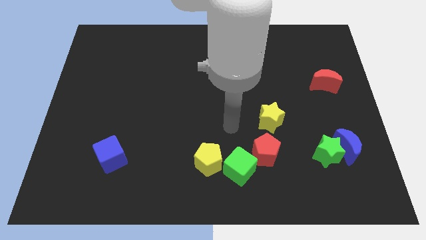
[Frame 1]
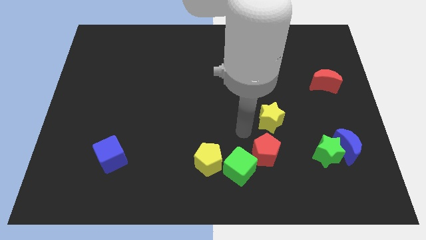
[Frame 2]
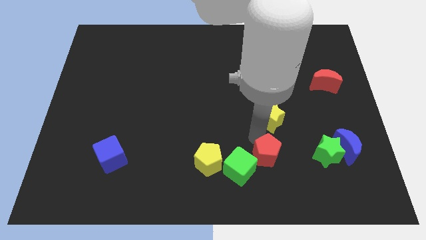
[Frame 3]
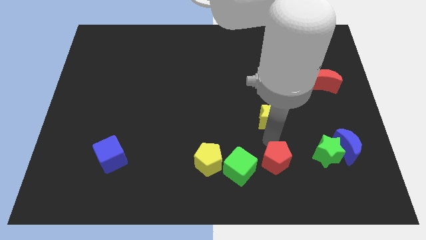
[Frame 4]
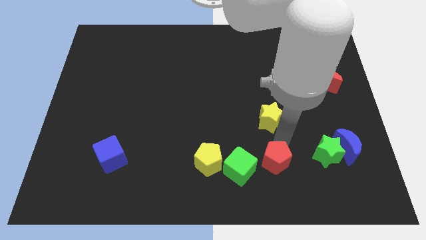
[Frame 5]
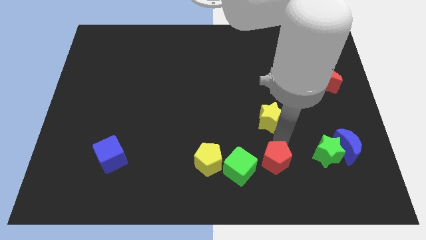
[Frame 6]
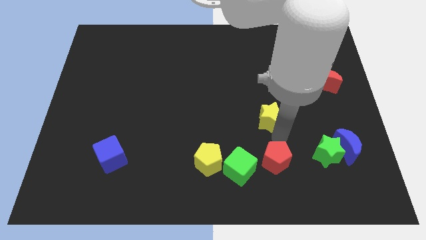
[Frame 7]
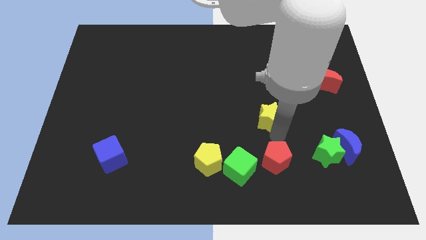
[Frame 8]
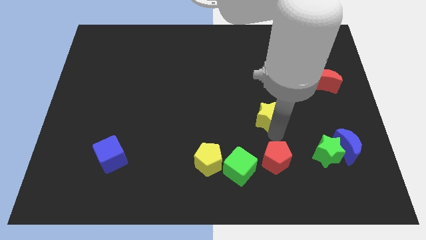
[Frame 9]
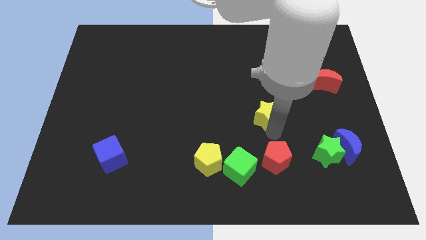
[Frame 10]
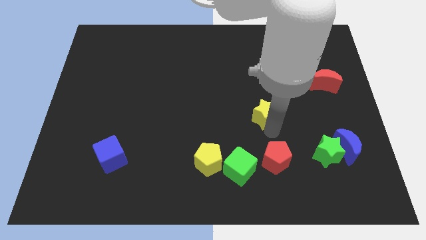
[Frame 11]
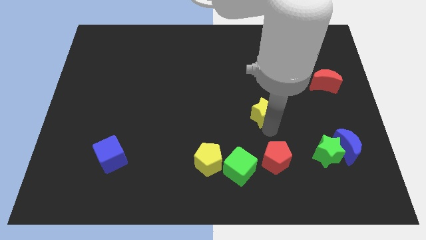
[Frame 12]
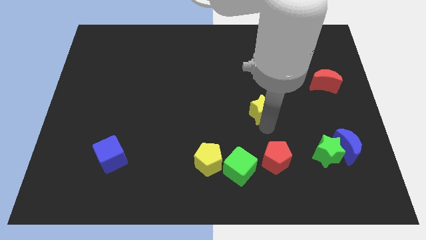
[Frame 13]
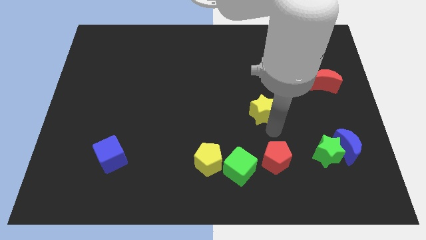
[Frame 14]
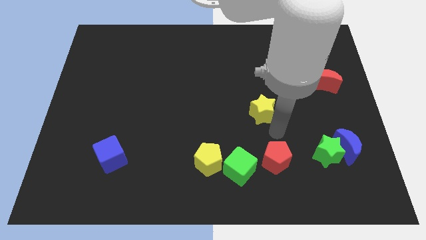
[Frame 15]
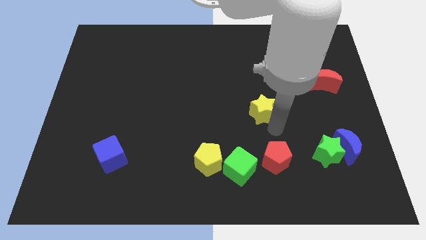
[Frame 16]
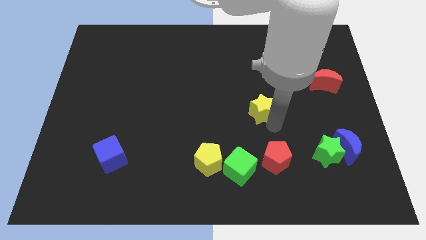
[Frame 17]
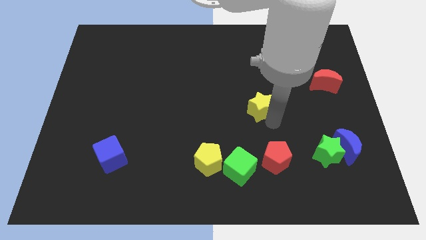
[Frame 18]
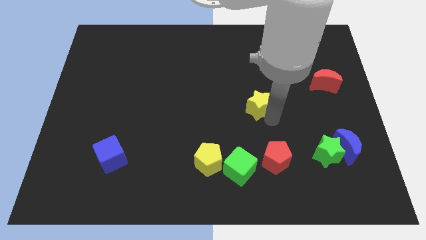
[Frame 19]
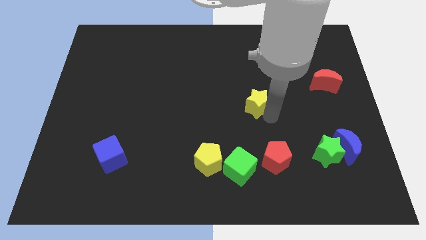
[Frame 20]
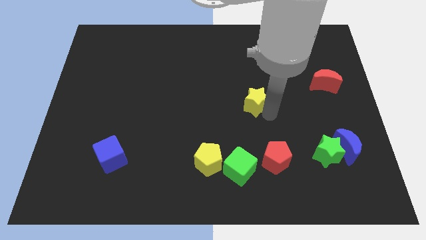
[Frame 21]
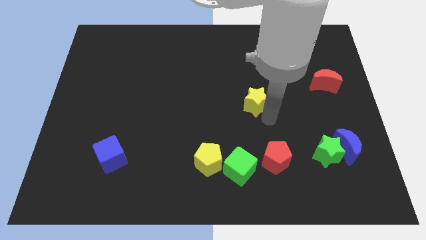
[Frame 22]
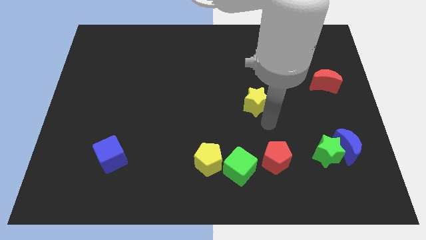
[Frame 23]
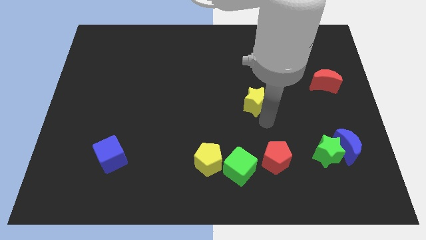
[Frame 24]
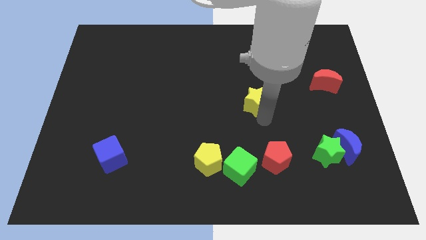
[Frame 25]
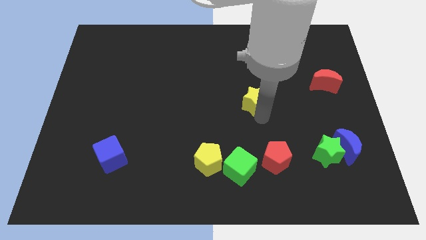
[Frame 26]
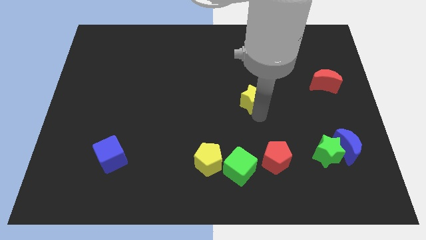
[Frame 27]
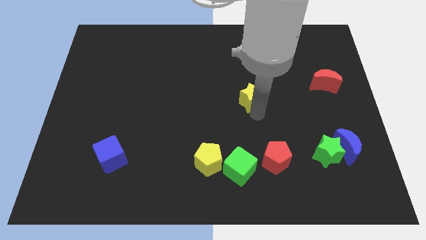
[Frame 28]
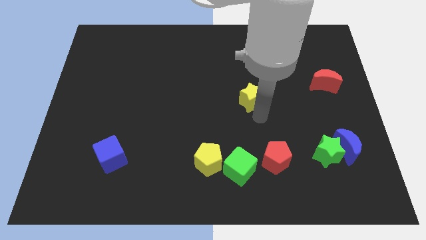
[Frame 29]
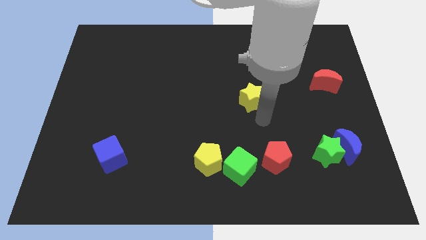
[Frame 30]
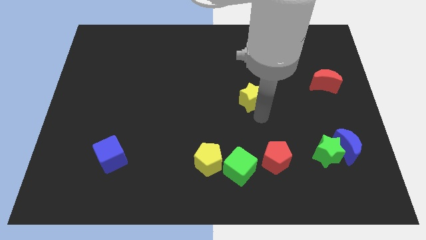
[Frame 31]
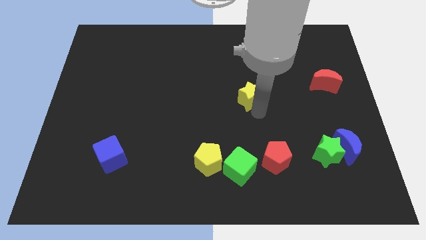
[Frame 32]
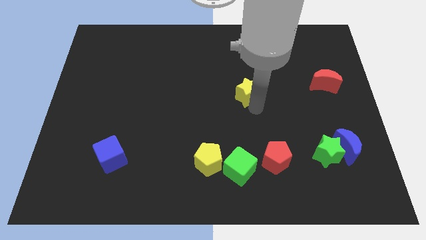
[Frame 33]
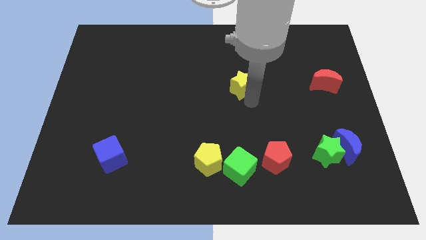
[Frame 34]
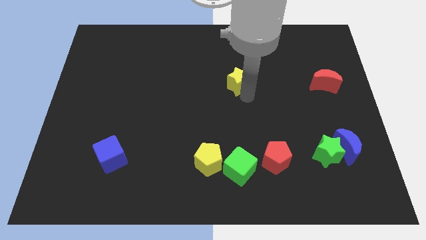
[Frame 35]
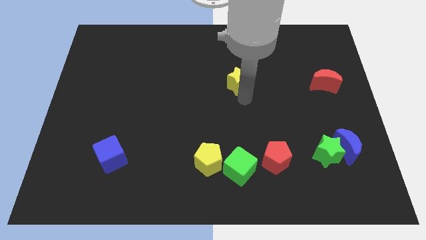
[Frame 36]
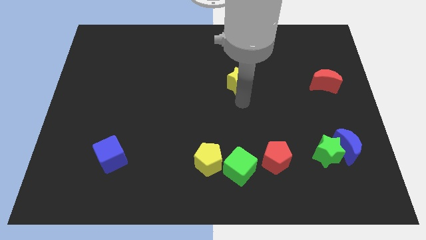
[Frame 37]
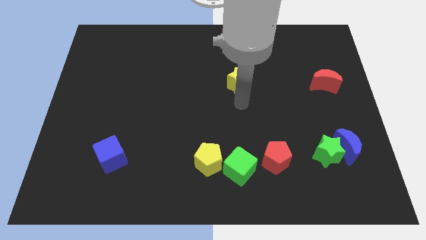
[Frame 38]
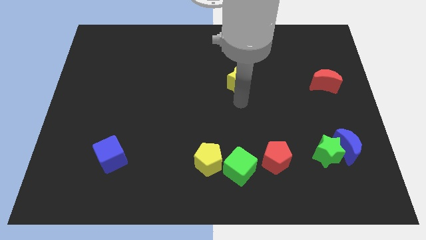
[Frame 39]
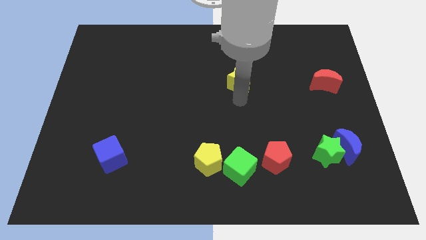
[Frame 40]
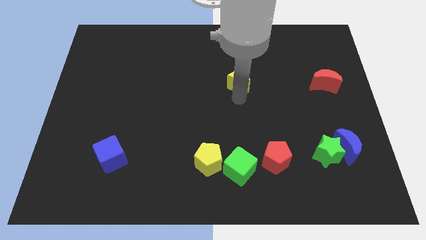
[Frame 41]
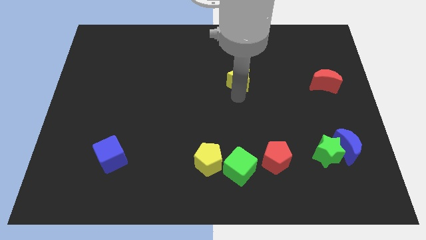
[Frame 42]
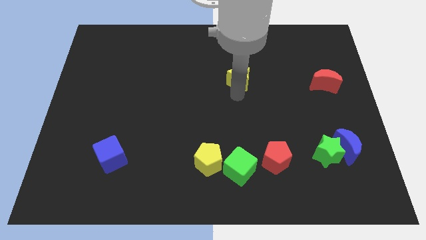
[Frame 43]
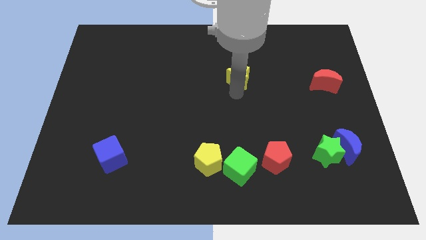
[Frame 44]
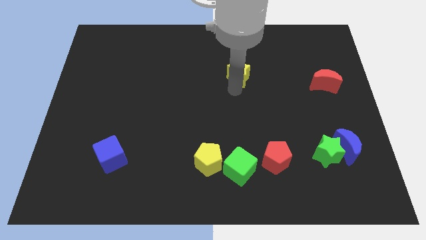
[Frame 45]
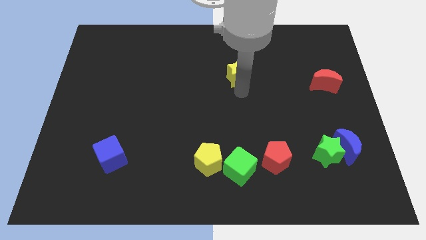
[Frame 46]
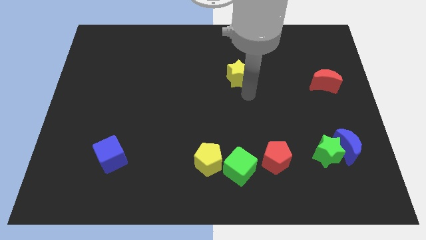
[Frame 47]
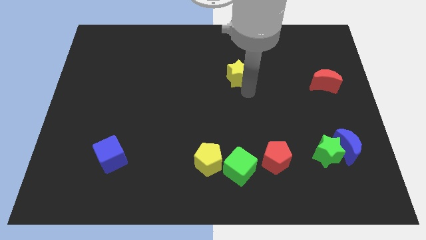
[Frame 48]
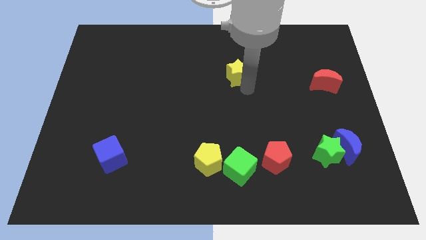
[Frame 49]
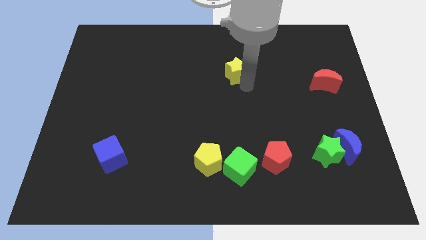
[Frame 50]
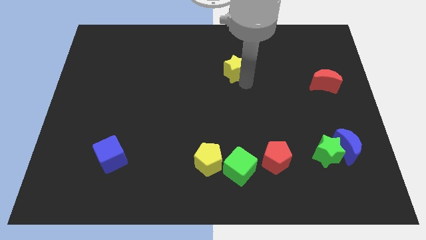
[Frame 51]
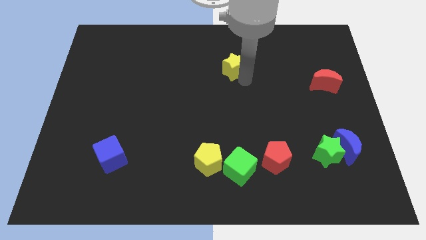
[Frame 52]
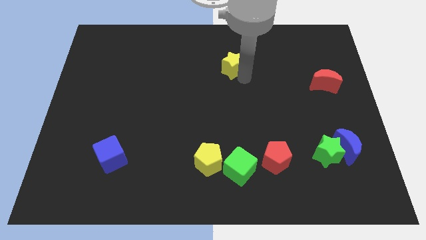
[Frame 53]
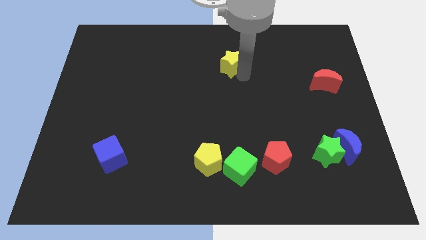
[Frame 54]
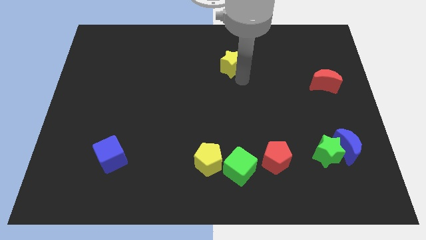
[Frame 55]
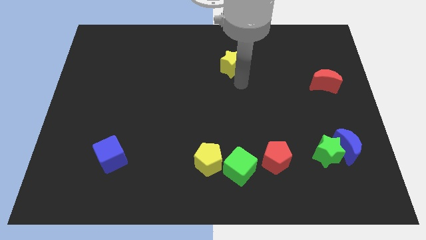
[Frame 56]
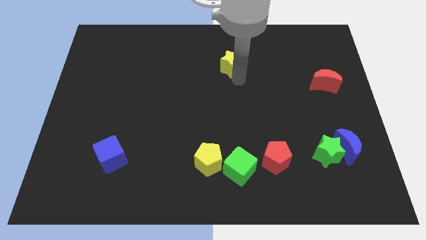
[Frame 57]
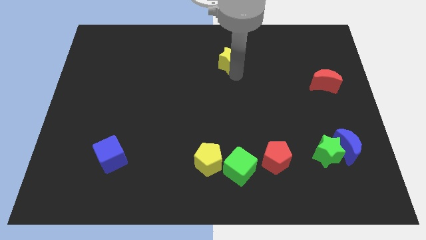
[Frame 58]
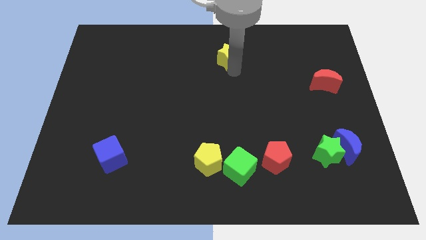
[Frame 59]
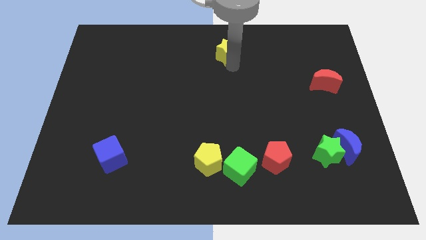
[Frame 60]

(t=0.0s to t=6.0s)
move the yellow star to the towards your base

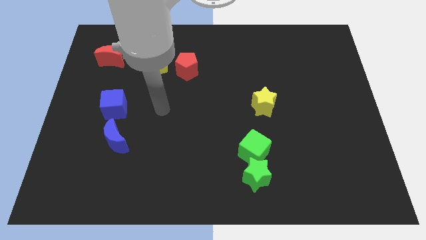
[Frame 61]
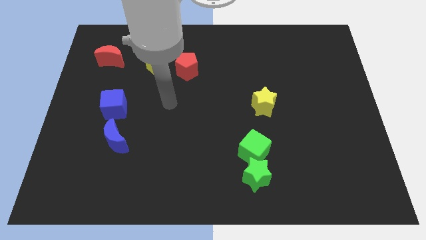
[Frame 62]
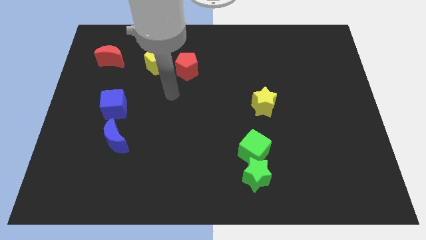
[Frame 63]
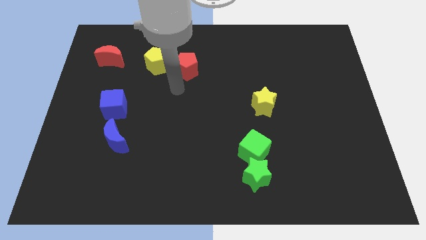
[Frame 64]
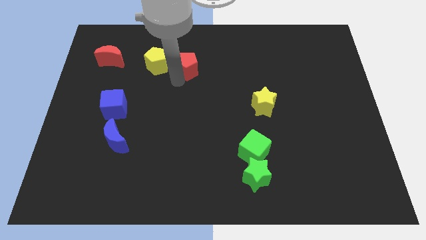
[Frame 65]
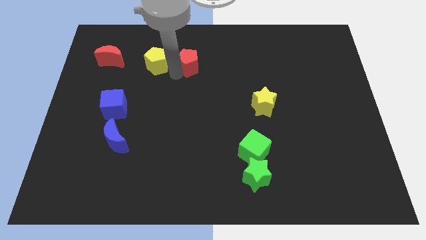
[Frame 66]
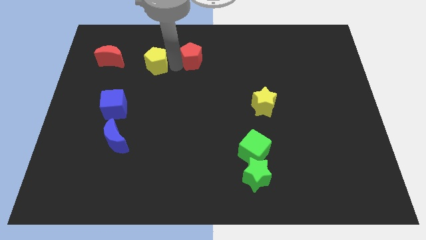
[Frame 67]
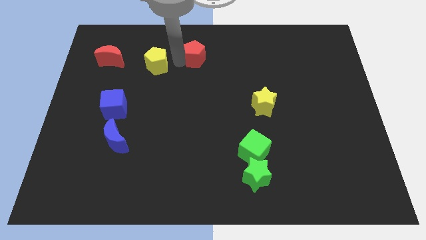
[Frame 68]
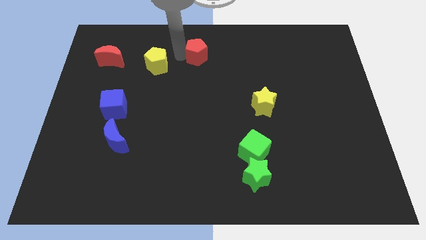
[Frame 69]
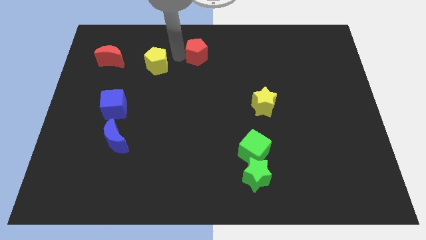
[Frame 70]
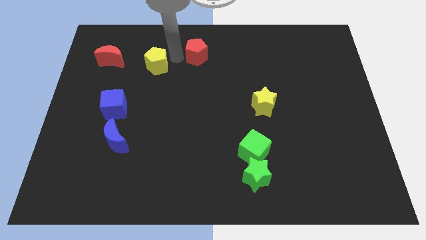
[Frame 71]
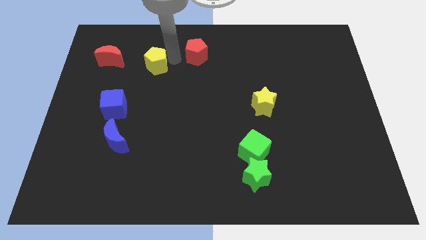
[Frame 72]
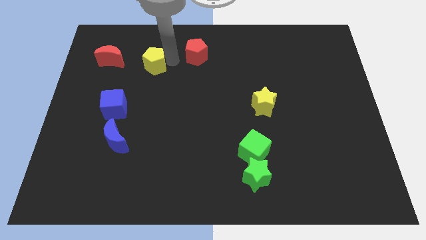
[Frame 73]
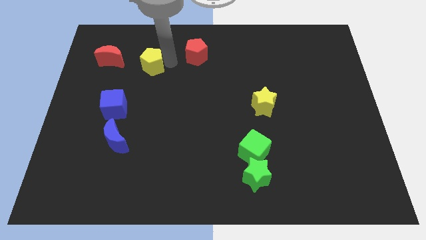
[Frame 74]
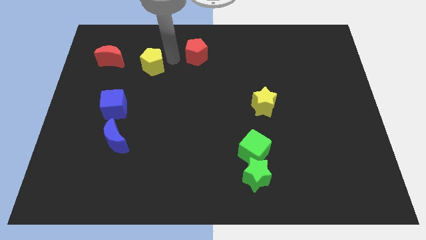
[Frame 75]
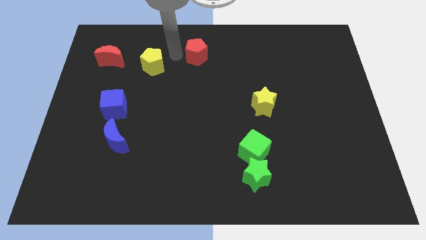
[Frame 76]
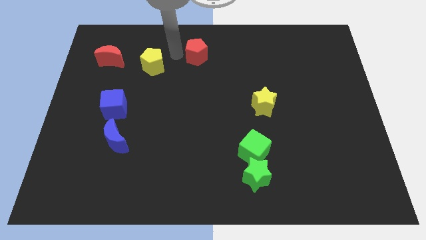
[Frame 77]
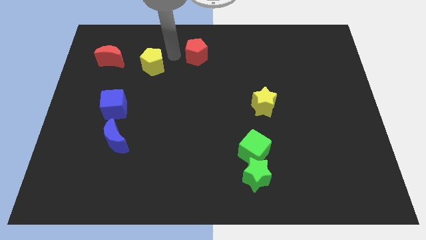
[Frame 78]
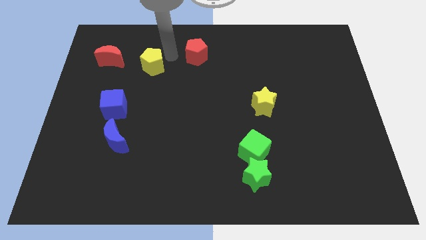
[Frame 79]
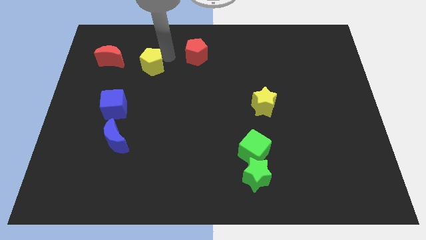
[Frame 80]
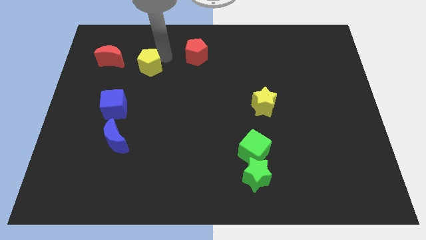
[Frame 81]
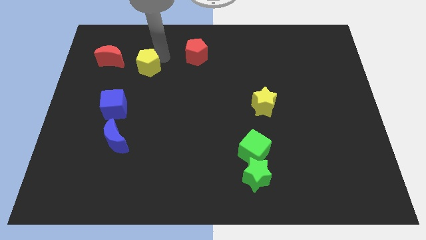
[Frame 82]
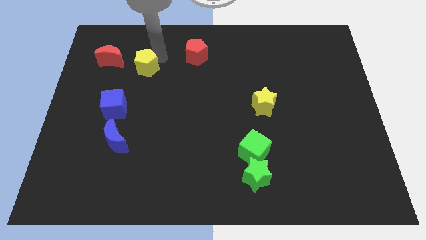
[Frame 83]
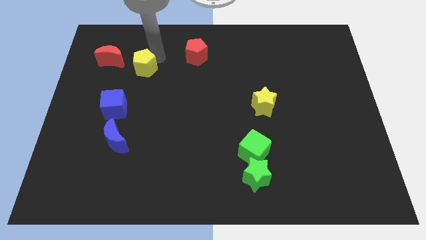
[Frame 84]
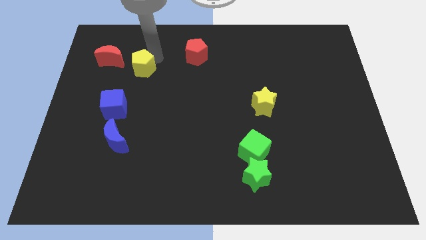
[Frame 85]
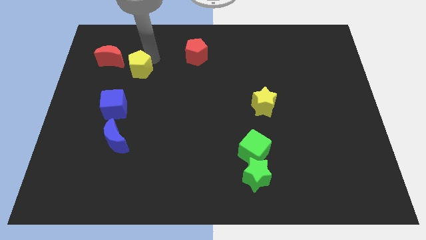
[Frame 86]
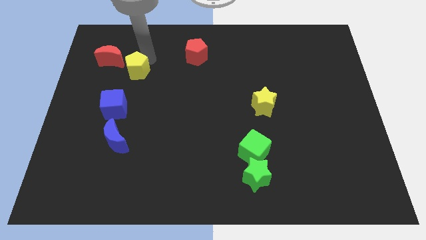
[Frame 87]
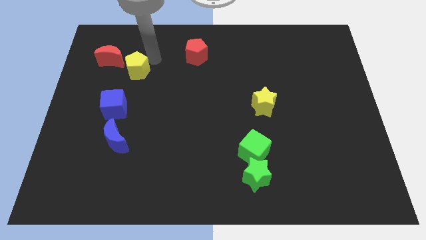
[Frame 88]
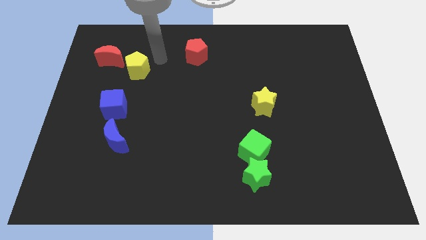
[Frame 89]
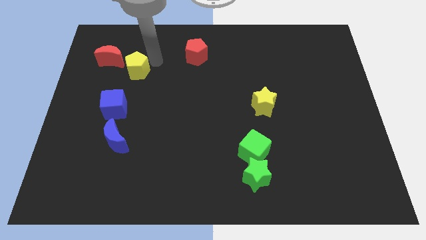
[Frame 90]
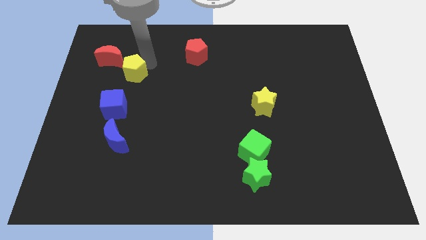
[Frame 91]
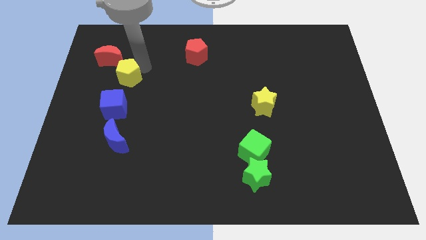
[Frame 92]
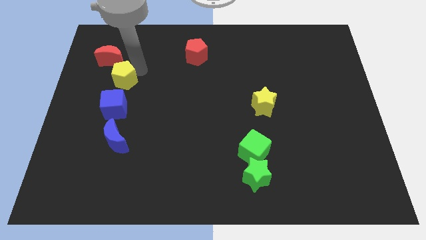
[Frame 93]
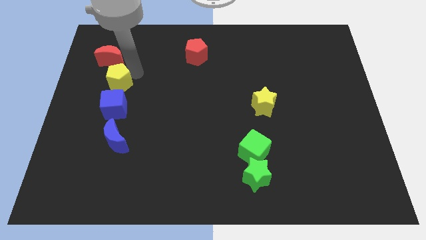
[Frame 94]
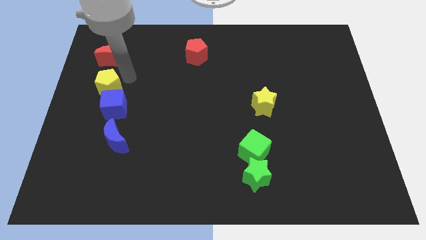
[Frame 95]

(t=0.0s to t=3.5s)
slide the yellow pentagon to the center left
